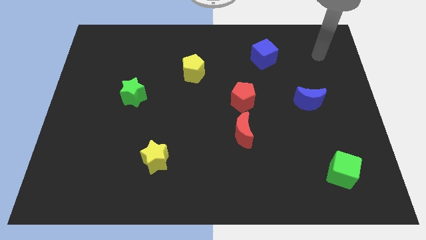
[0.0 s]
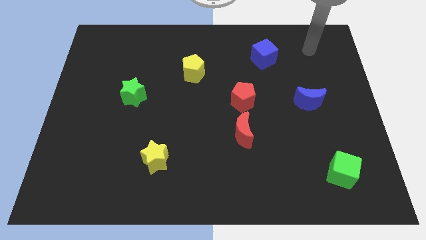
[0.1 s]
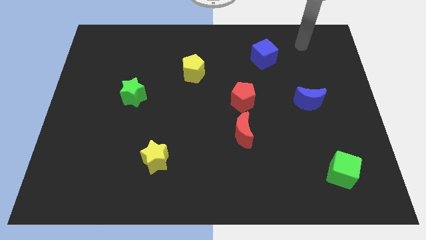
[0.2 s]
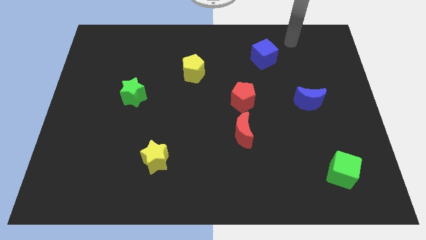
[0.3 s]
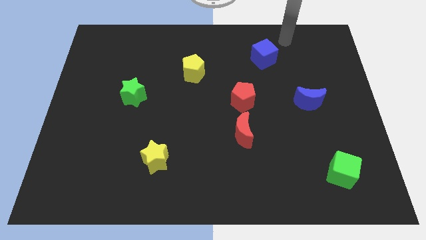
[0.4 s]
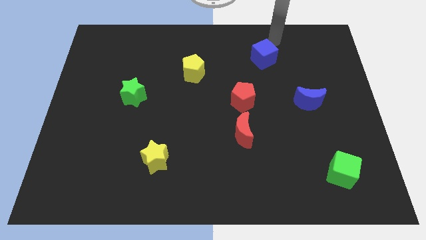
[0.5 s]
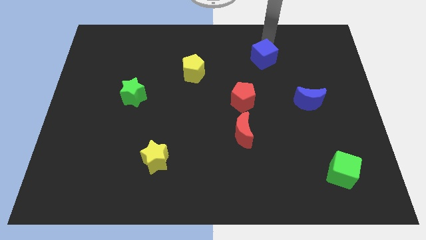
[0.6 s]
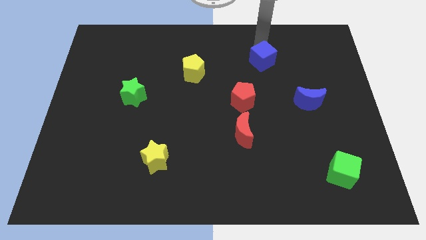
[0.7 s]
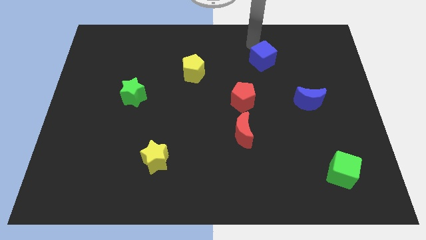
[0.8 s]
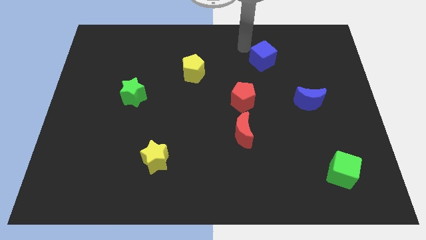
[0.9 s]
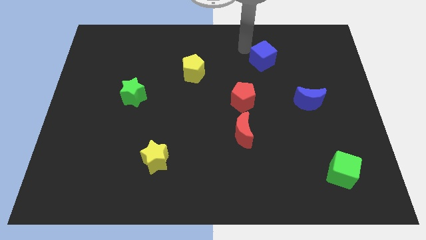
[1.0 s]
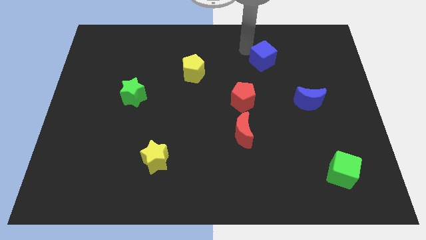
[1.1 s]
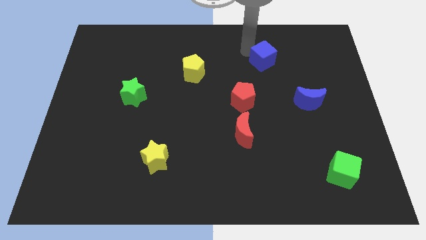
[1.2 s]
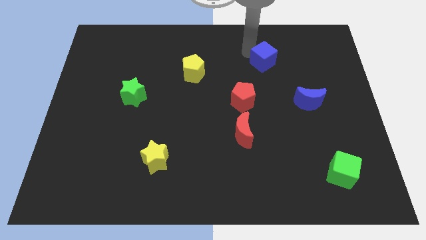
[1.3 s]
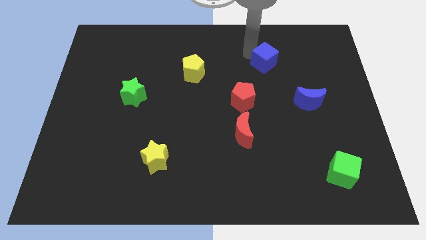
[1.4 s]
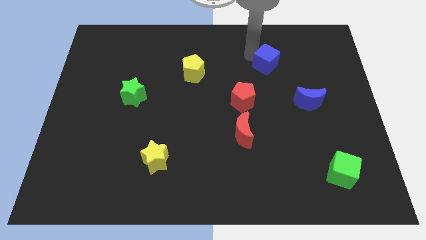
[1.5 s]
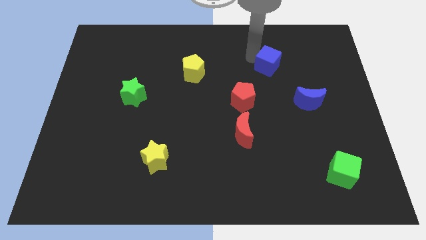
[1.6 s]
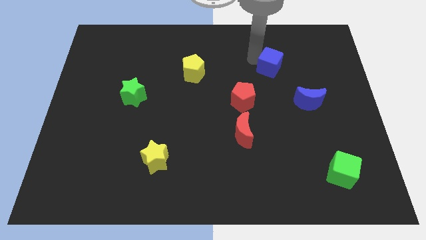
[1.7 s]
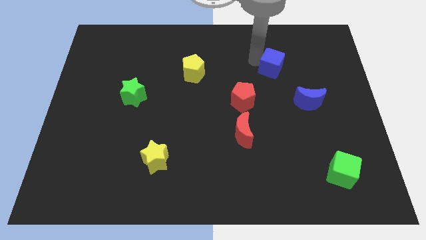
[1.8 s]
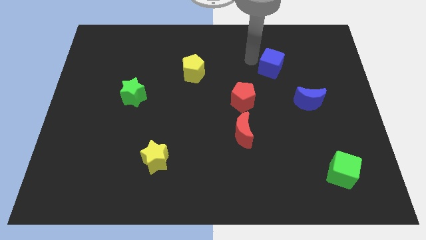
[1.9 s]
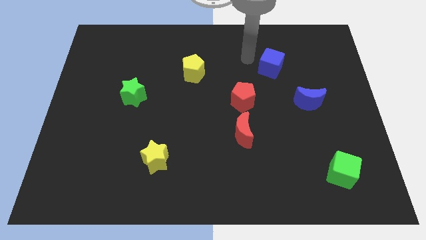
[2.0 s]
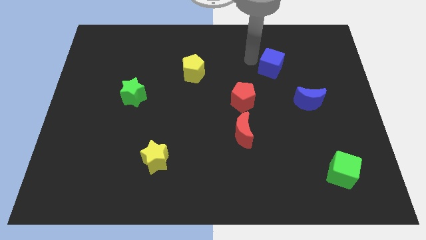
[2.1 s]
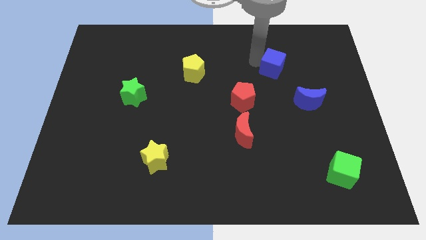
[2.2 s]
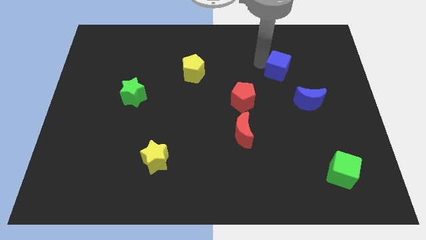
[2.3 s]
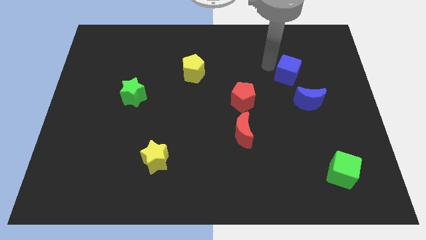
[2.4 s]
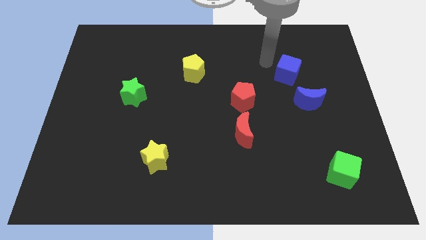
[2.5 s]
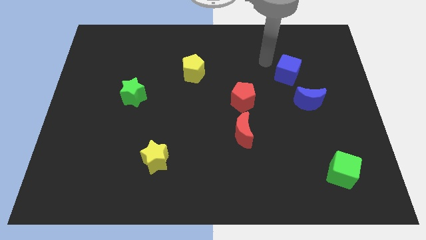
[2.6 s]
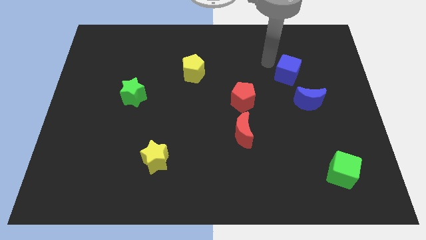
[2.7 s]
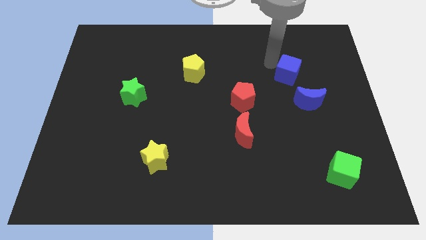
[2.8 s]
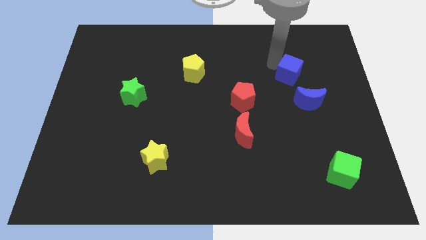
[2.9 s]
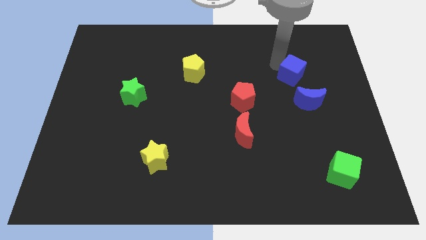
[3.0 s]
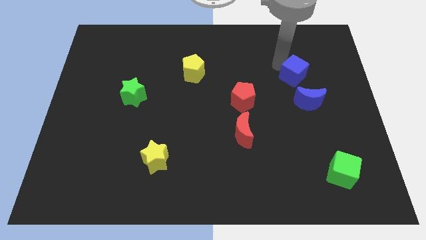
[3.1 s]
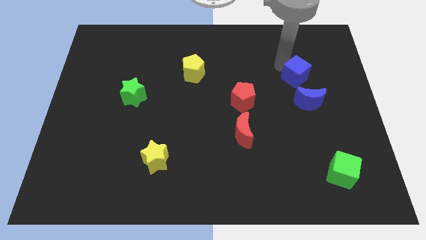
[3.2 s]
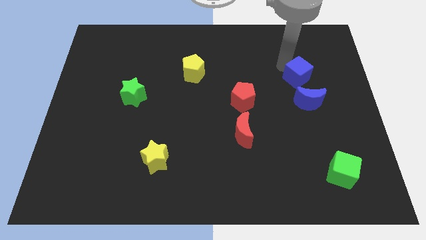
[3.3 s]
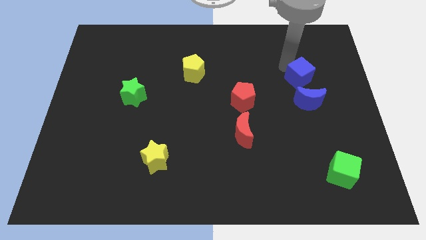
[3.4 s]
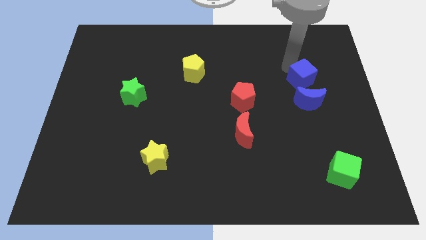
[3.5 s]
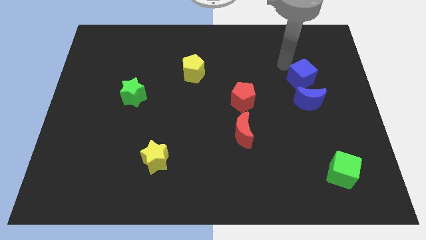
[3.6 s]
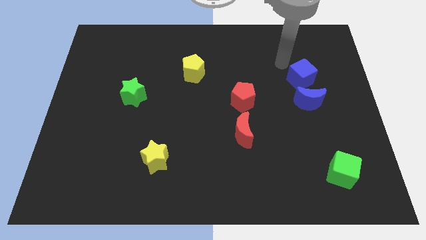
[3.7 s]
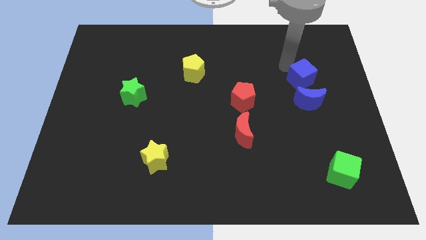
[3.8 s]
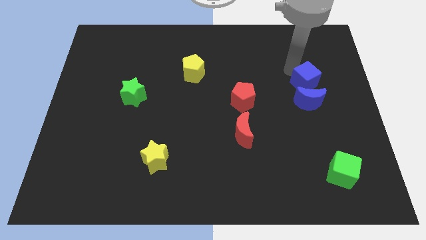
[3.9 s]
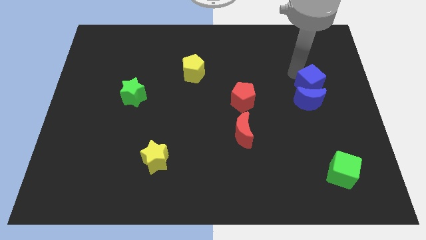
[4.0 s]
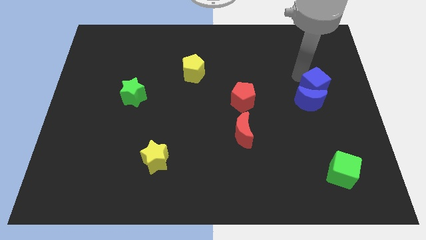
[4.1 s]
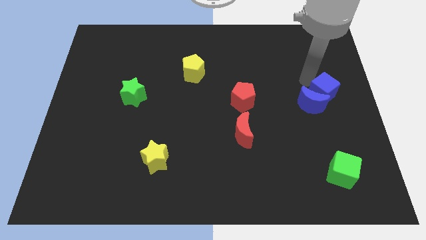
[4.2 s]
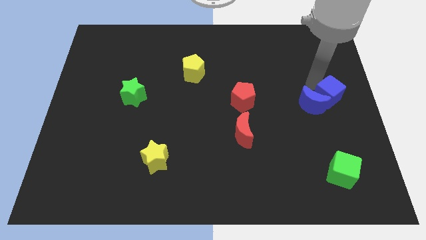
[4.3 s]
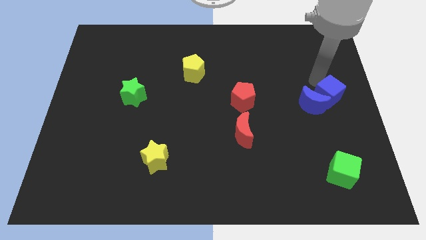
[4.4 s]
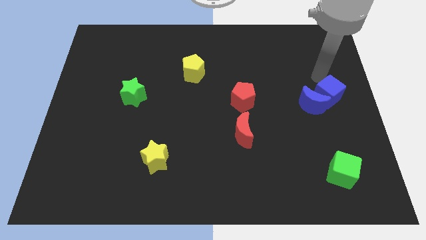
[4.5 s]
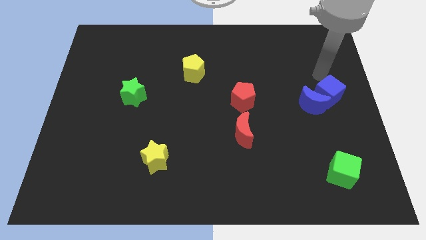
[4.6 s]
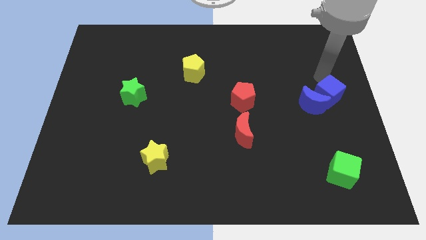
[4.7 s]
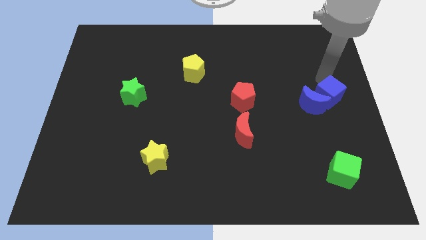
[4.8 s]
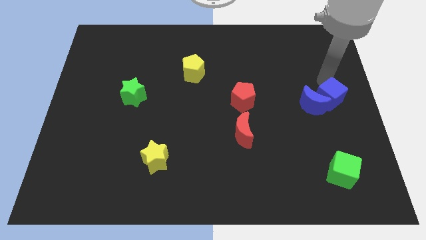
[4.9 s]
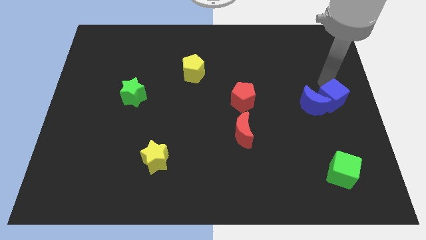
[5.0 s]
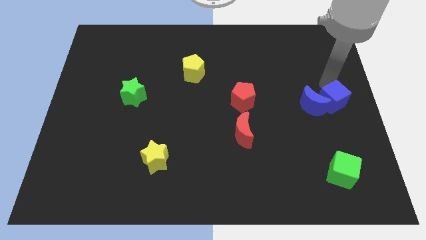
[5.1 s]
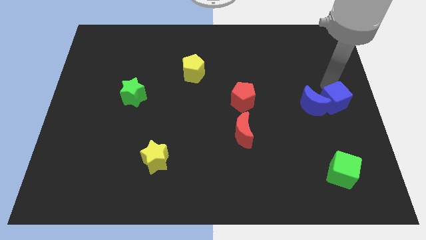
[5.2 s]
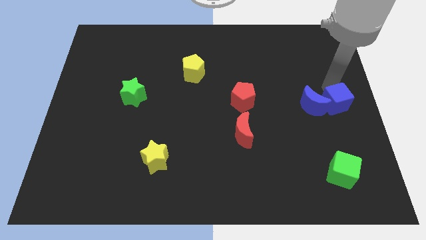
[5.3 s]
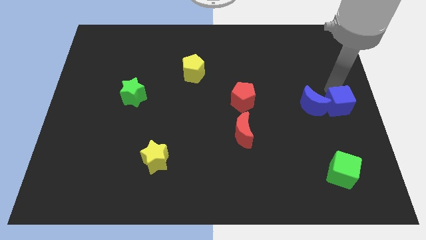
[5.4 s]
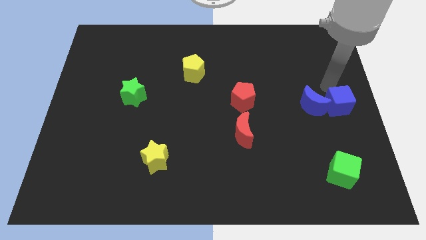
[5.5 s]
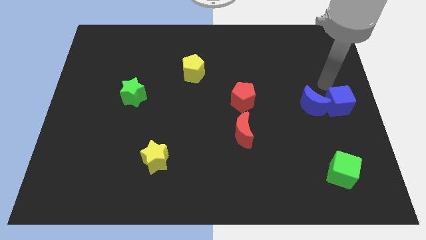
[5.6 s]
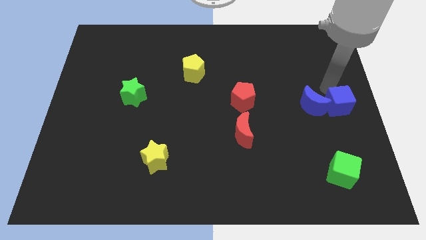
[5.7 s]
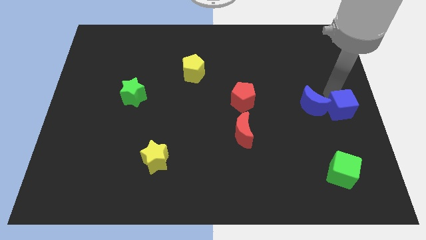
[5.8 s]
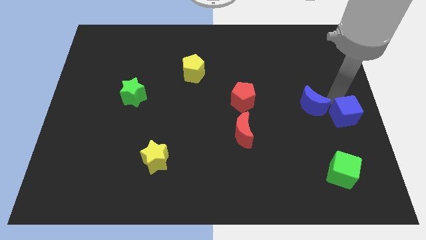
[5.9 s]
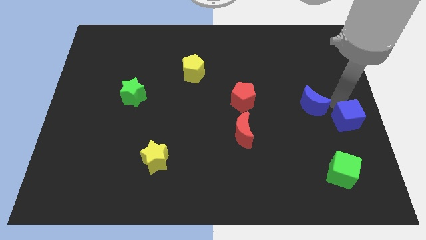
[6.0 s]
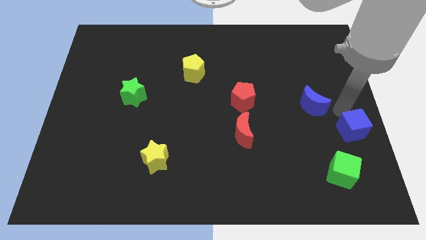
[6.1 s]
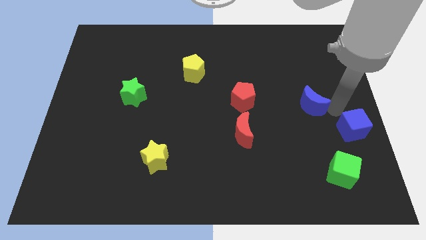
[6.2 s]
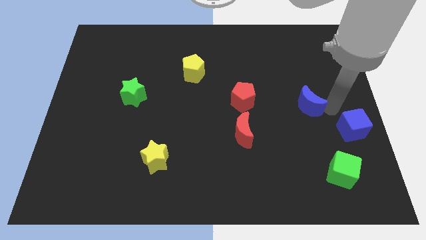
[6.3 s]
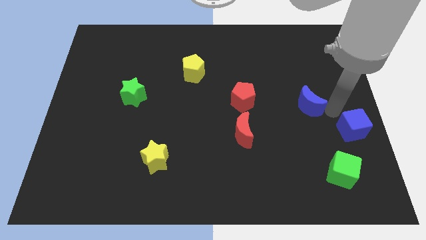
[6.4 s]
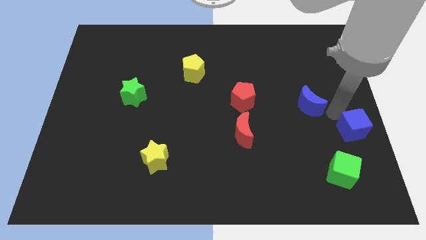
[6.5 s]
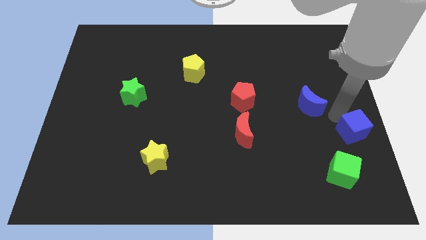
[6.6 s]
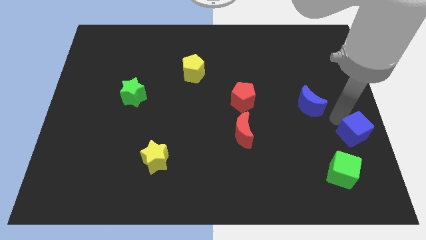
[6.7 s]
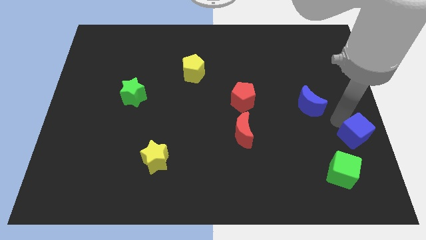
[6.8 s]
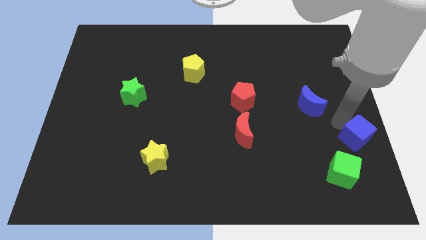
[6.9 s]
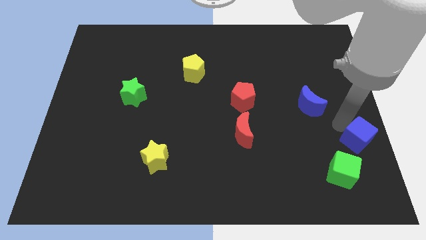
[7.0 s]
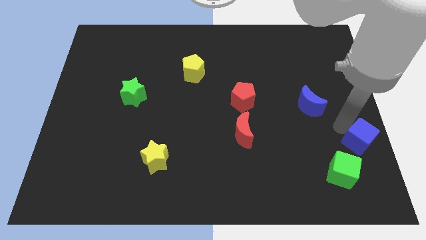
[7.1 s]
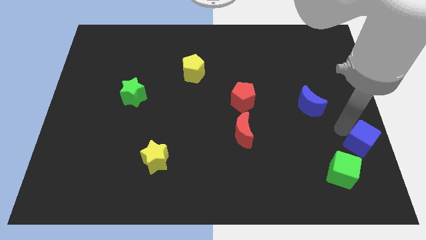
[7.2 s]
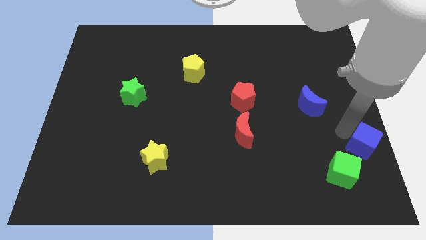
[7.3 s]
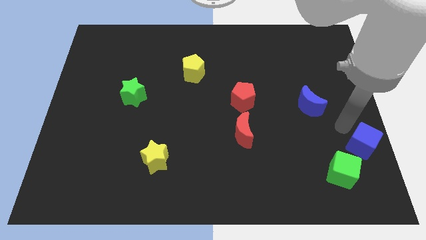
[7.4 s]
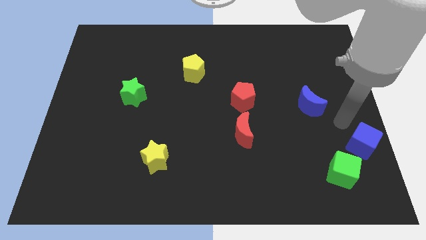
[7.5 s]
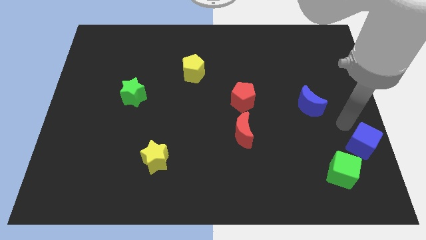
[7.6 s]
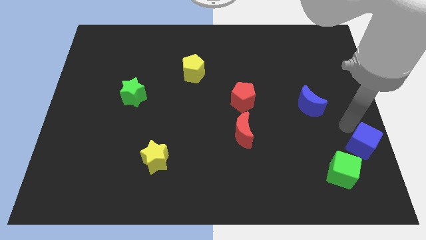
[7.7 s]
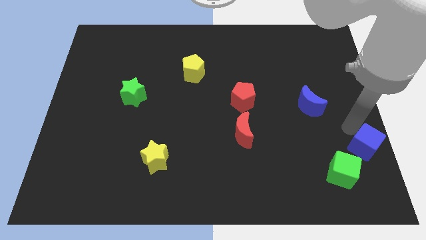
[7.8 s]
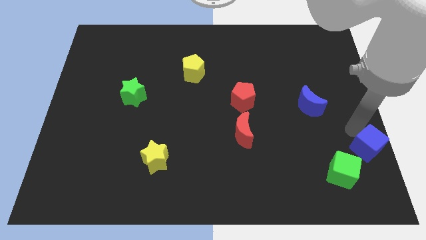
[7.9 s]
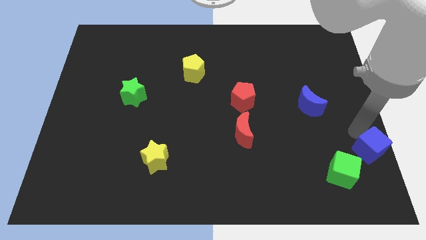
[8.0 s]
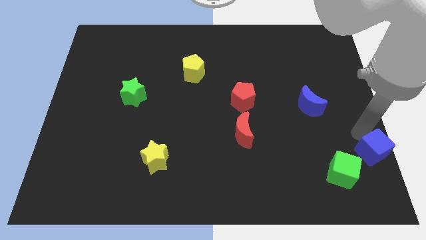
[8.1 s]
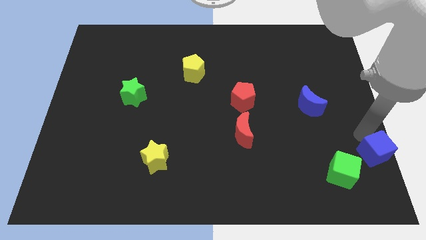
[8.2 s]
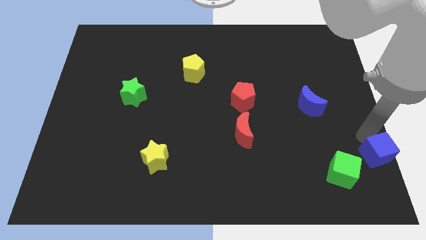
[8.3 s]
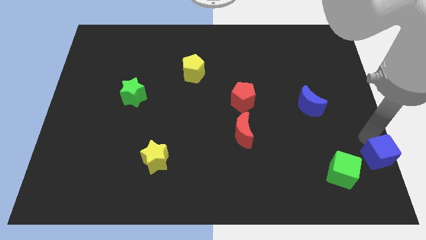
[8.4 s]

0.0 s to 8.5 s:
push the blue cube to the bottom right of the board
